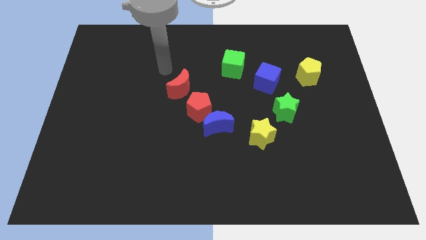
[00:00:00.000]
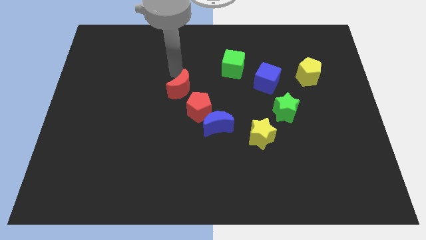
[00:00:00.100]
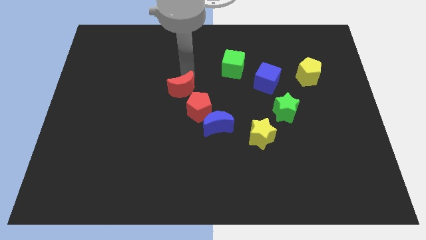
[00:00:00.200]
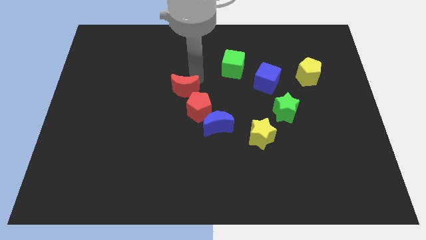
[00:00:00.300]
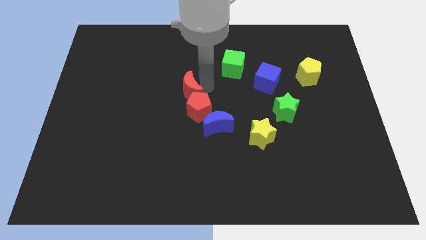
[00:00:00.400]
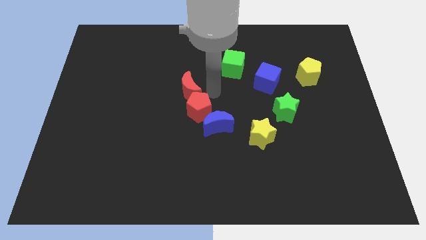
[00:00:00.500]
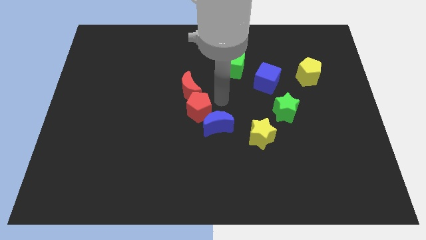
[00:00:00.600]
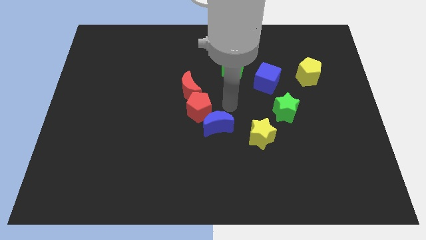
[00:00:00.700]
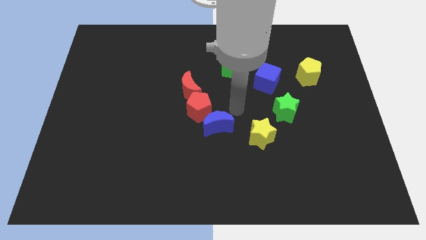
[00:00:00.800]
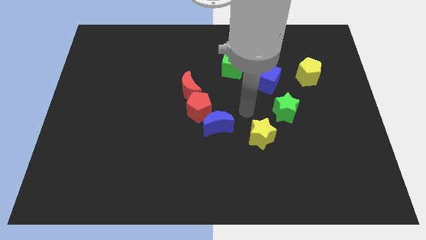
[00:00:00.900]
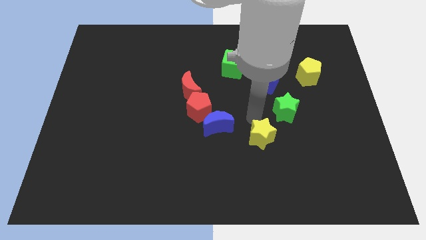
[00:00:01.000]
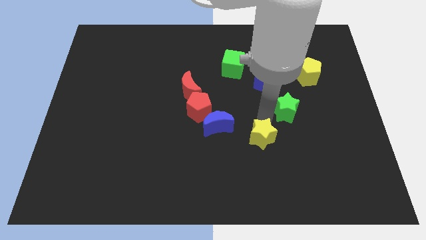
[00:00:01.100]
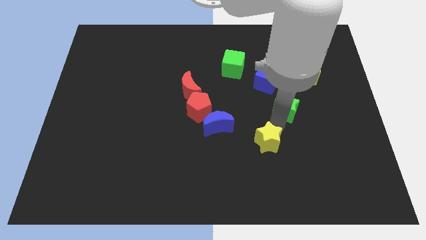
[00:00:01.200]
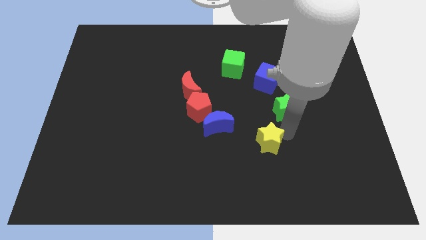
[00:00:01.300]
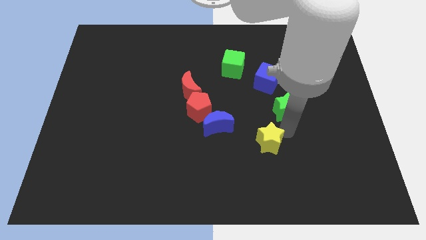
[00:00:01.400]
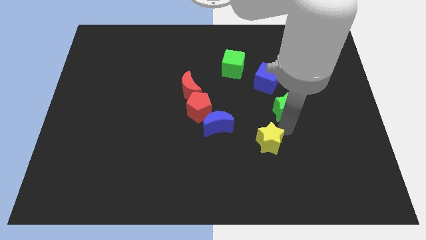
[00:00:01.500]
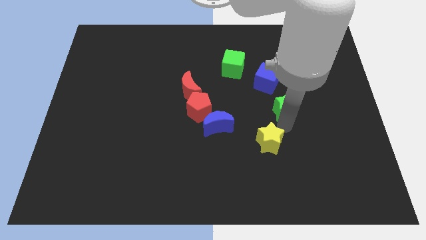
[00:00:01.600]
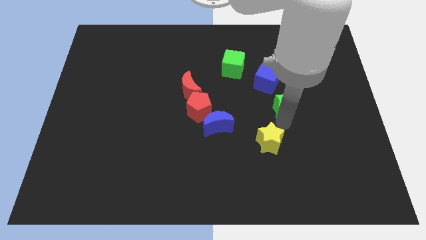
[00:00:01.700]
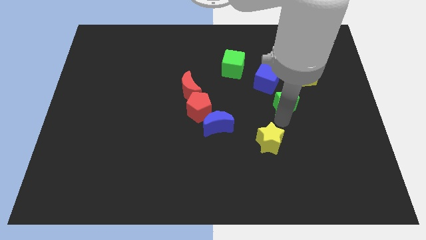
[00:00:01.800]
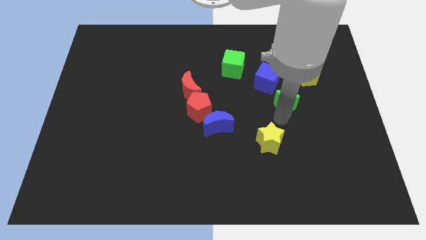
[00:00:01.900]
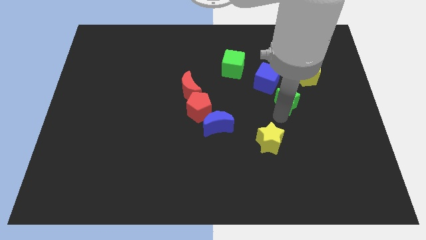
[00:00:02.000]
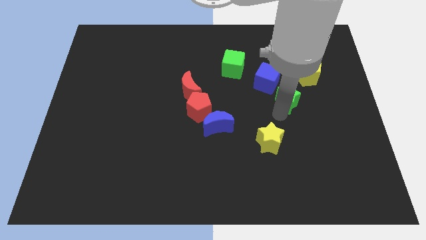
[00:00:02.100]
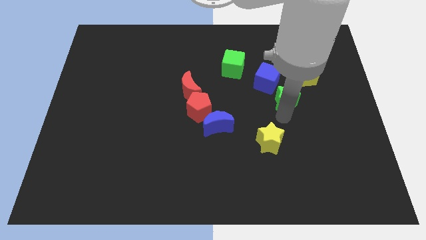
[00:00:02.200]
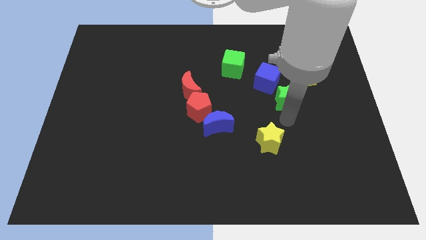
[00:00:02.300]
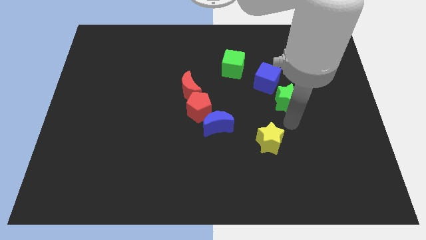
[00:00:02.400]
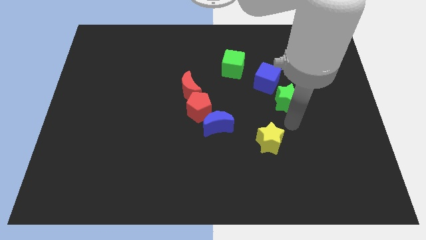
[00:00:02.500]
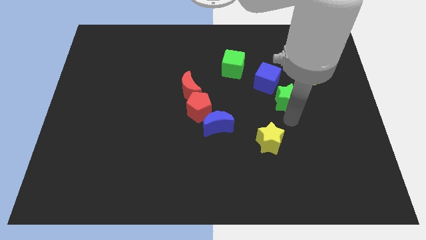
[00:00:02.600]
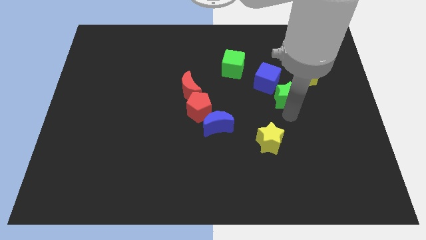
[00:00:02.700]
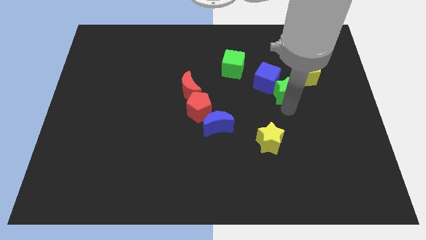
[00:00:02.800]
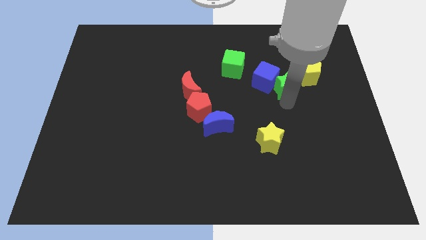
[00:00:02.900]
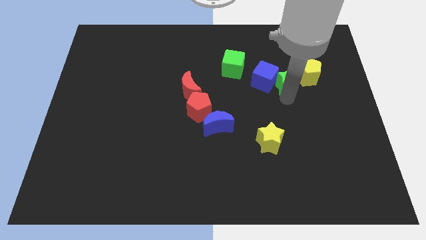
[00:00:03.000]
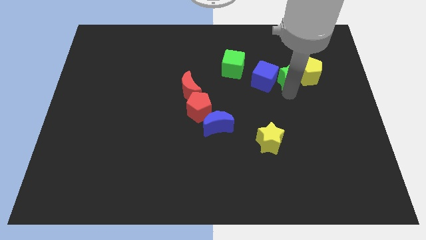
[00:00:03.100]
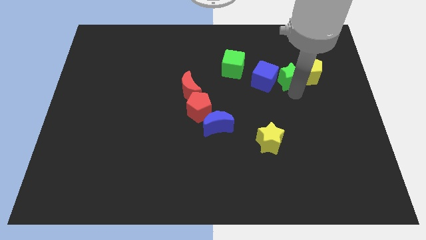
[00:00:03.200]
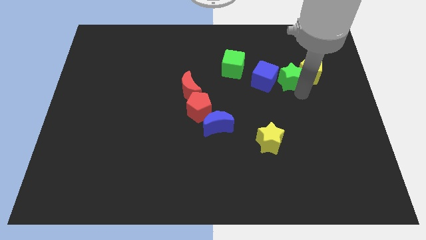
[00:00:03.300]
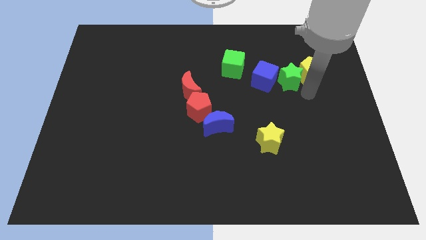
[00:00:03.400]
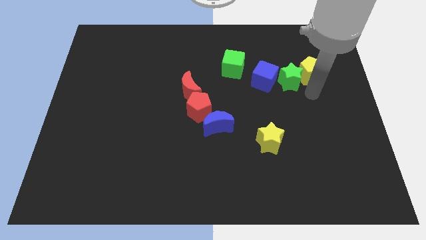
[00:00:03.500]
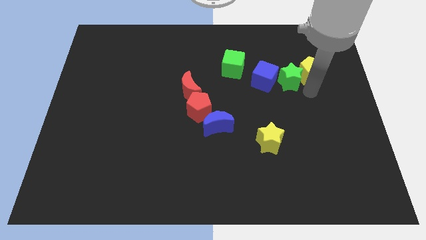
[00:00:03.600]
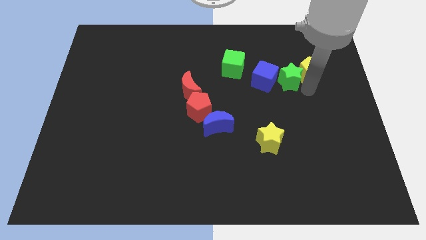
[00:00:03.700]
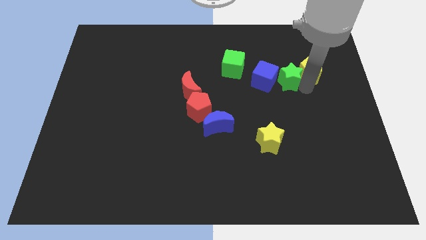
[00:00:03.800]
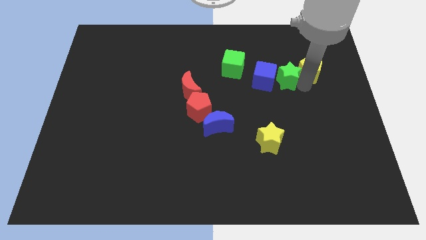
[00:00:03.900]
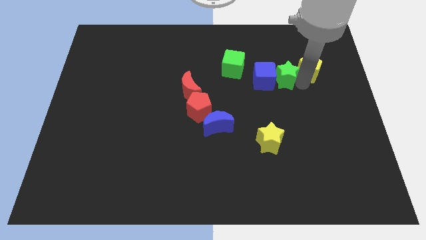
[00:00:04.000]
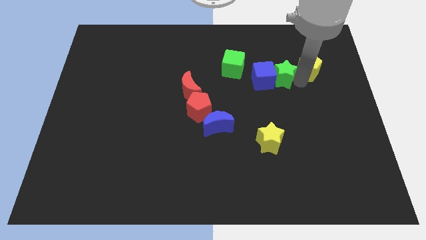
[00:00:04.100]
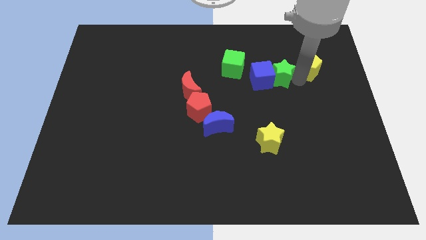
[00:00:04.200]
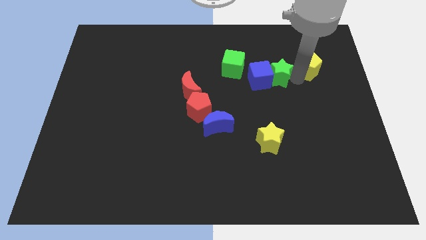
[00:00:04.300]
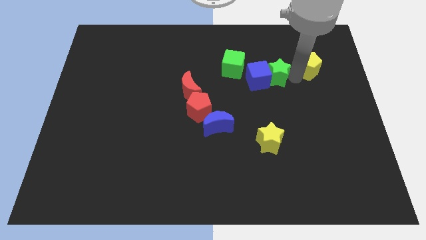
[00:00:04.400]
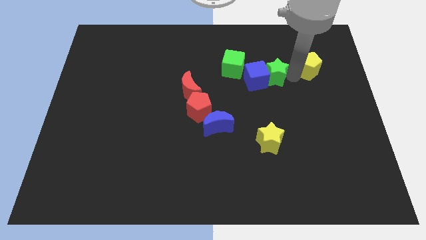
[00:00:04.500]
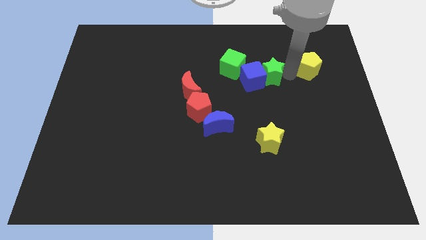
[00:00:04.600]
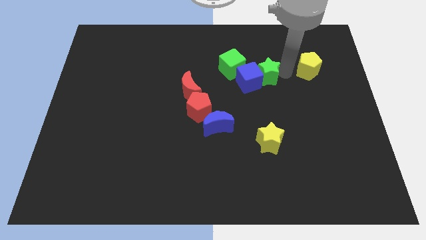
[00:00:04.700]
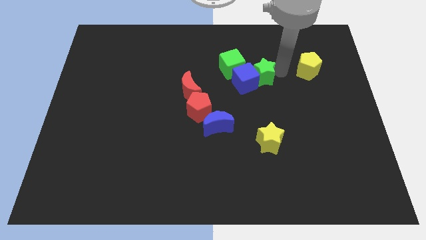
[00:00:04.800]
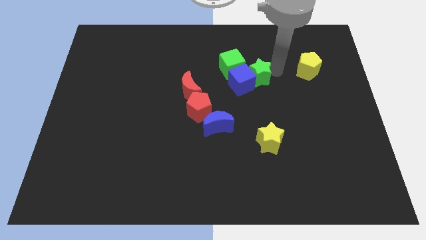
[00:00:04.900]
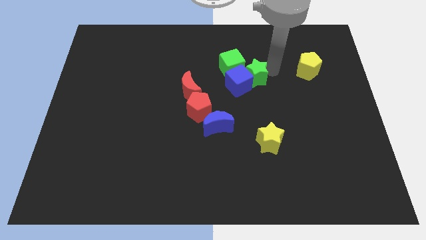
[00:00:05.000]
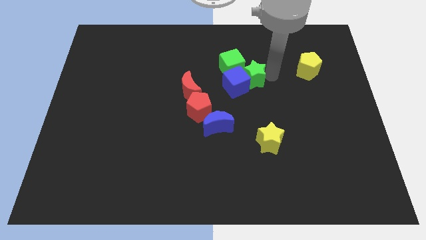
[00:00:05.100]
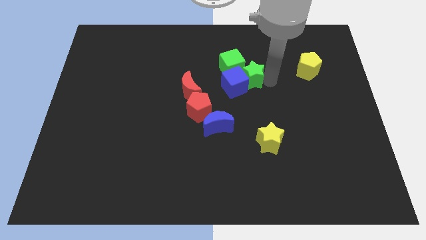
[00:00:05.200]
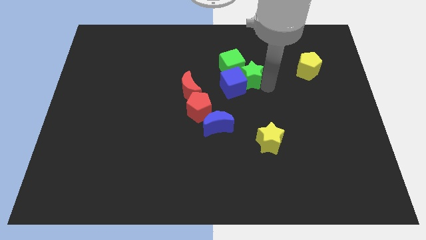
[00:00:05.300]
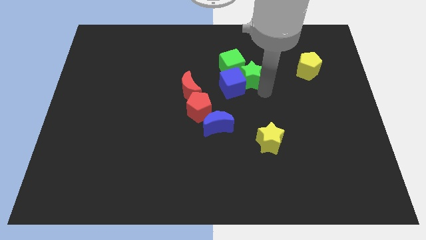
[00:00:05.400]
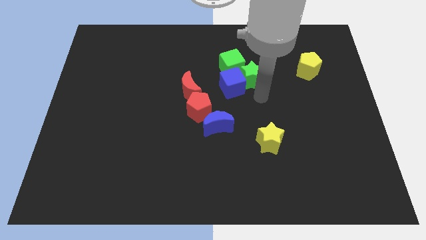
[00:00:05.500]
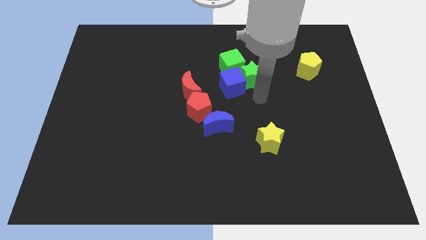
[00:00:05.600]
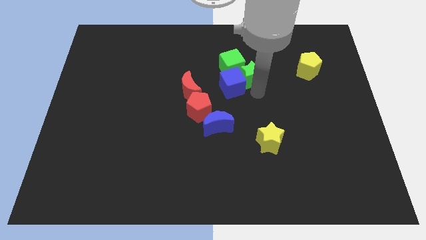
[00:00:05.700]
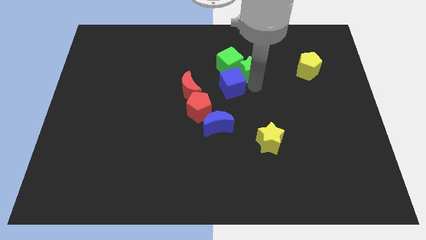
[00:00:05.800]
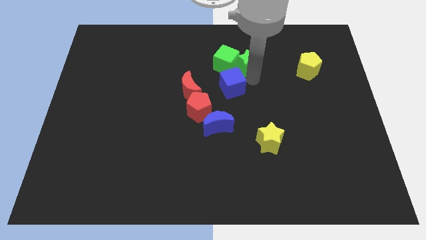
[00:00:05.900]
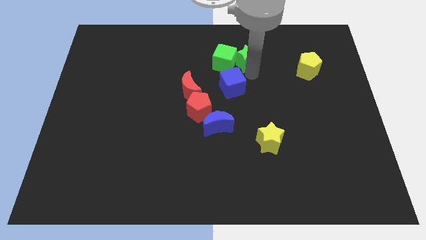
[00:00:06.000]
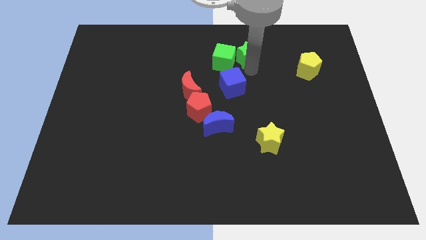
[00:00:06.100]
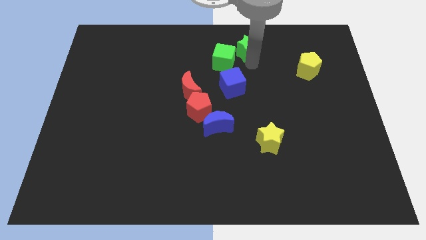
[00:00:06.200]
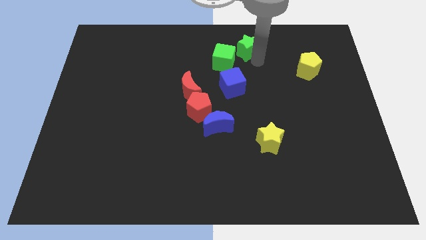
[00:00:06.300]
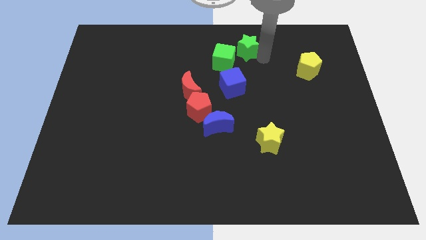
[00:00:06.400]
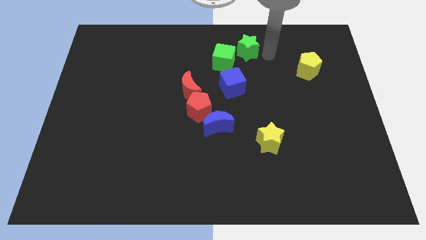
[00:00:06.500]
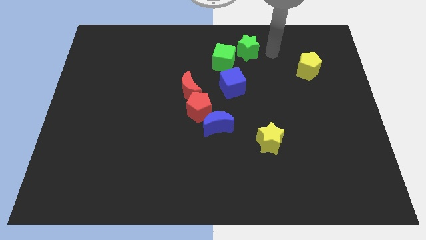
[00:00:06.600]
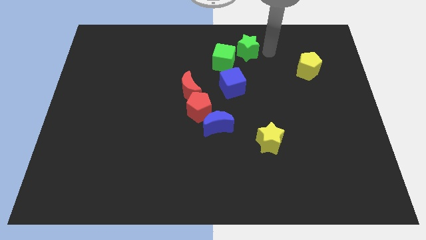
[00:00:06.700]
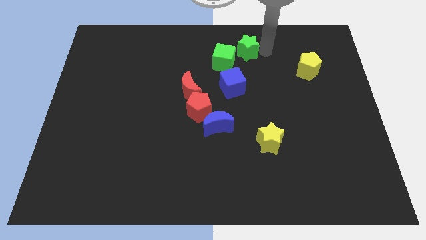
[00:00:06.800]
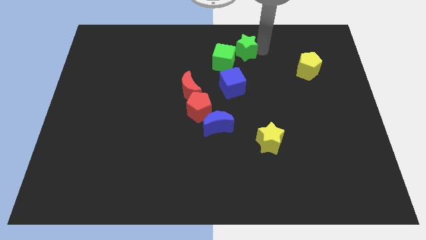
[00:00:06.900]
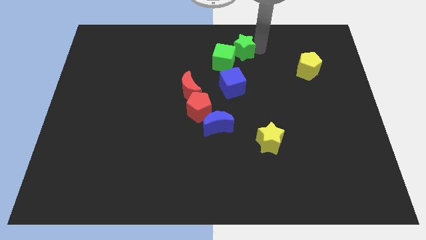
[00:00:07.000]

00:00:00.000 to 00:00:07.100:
slide the green star to the top side
